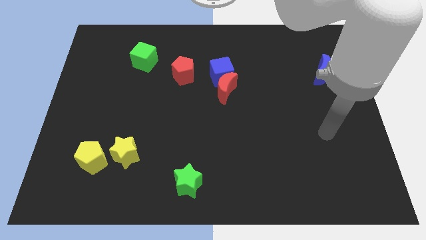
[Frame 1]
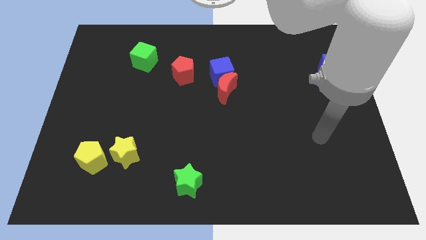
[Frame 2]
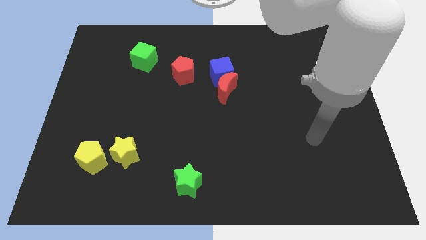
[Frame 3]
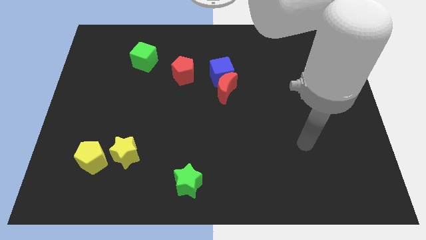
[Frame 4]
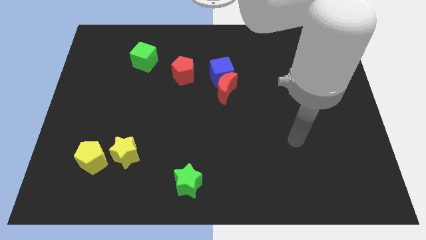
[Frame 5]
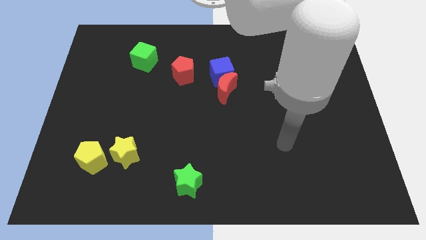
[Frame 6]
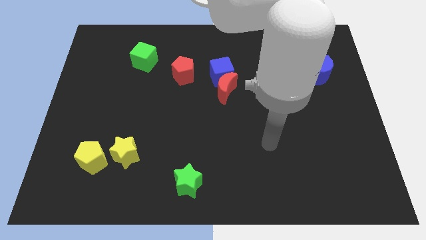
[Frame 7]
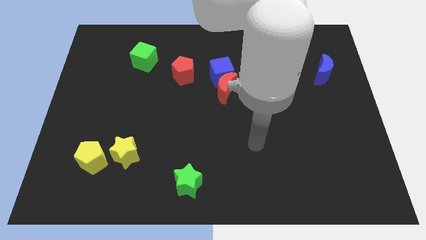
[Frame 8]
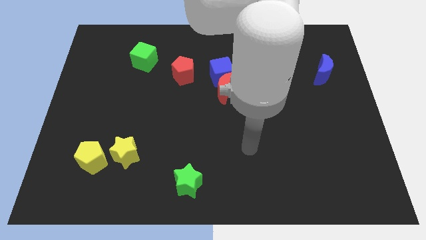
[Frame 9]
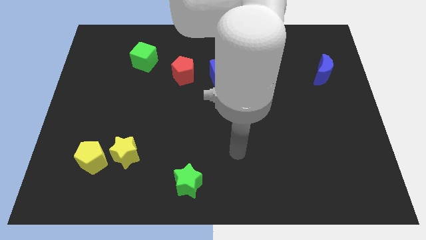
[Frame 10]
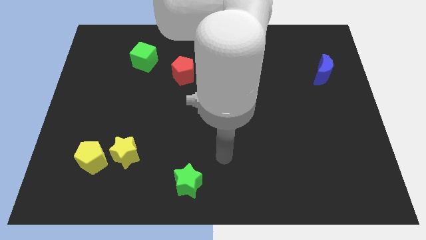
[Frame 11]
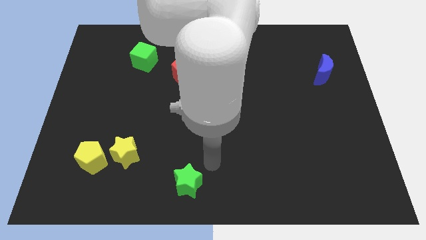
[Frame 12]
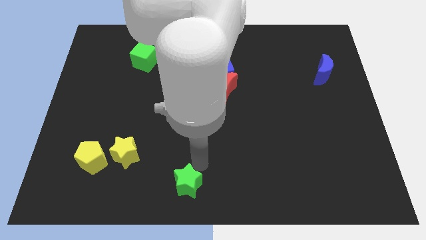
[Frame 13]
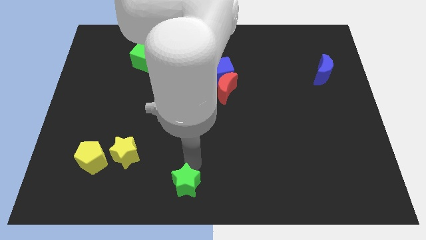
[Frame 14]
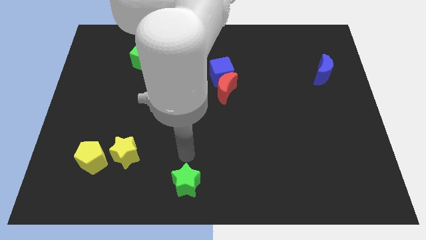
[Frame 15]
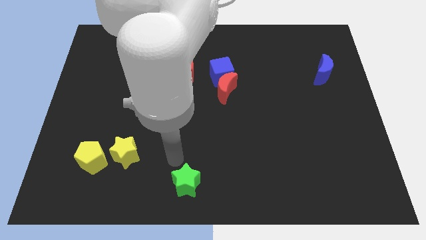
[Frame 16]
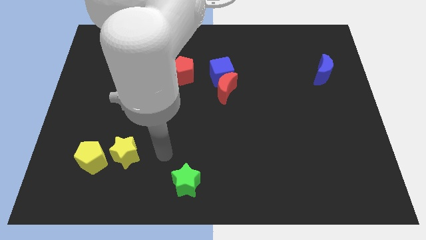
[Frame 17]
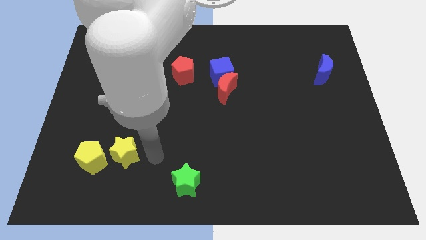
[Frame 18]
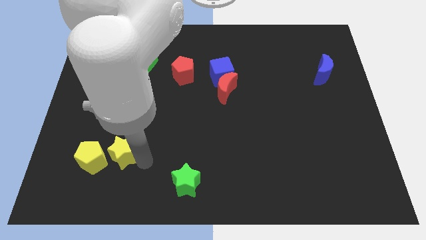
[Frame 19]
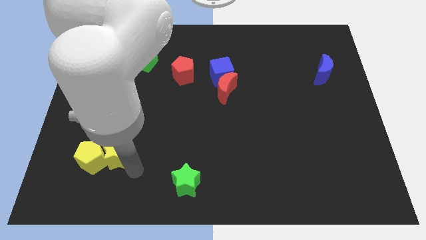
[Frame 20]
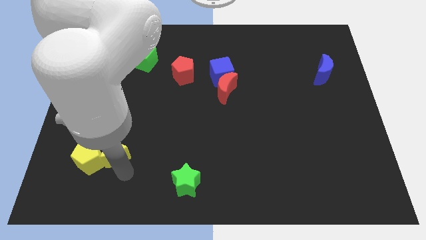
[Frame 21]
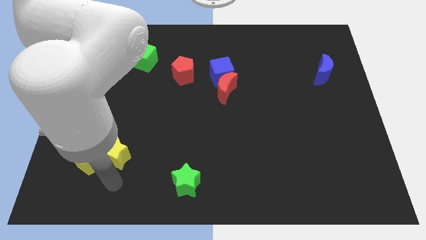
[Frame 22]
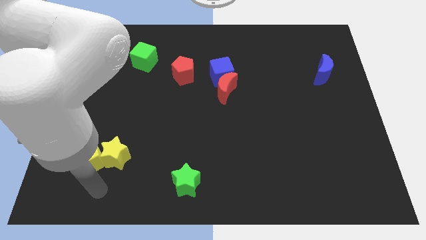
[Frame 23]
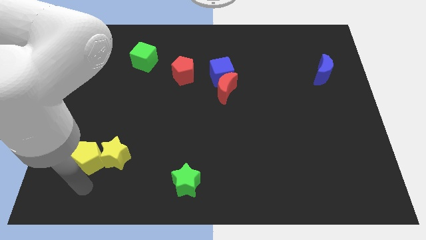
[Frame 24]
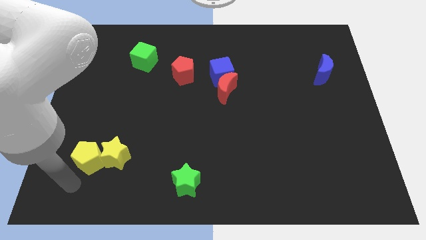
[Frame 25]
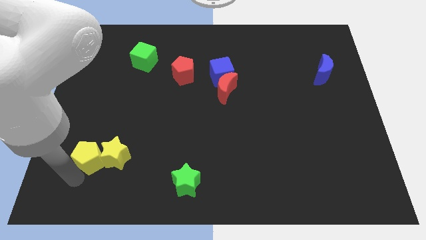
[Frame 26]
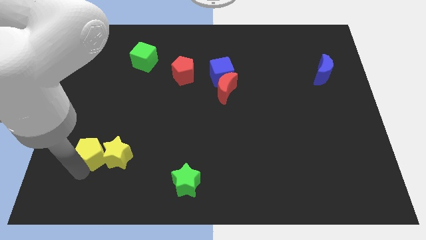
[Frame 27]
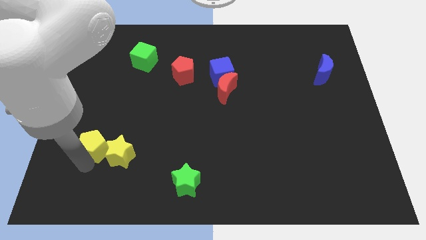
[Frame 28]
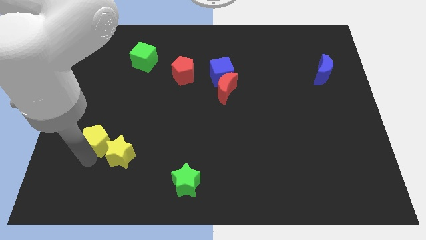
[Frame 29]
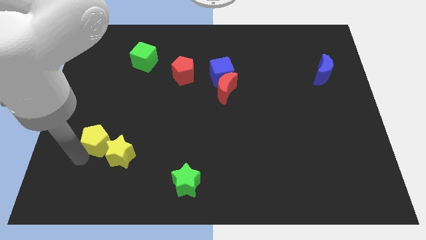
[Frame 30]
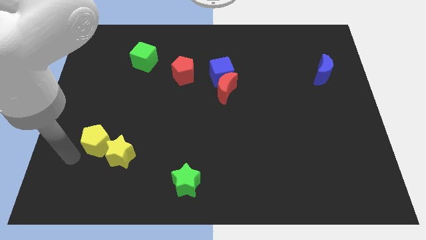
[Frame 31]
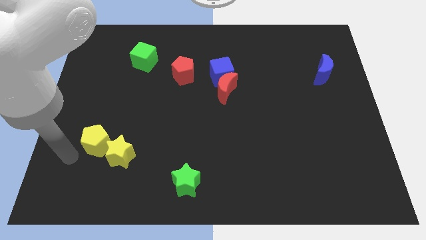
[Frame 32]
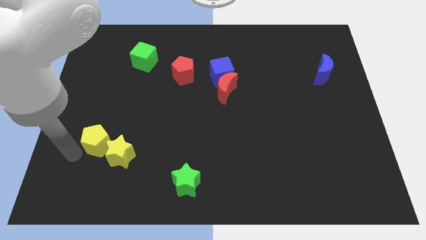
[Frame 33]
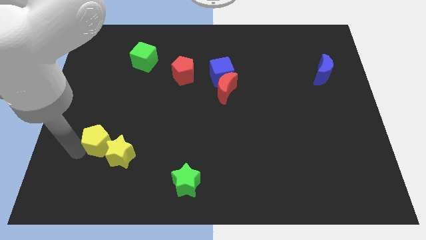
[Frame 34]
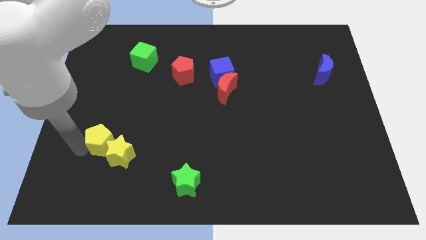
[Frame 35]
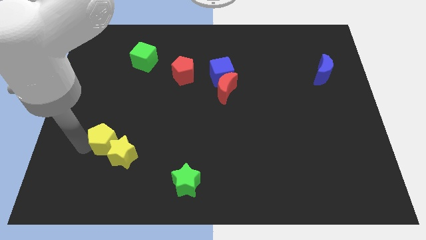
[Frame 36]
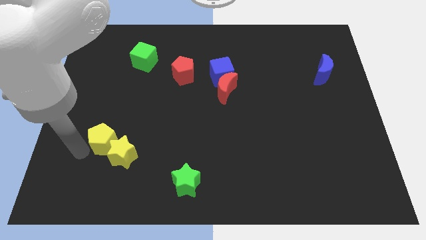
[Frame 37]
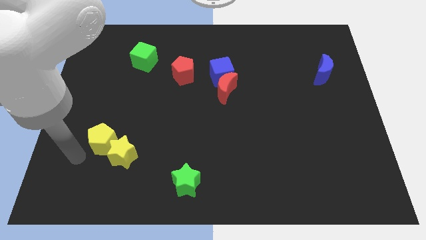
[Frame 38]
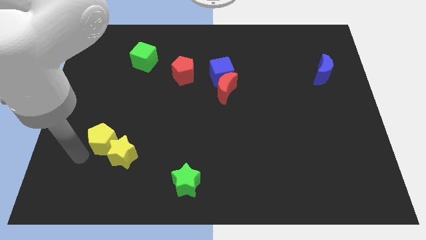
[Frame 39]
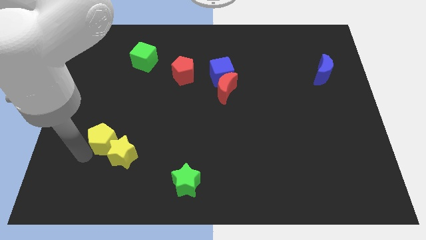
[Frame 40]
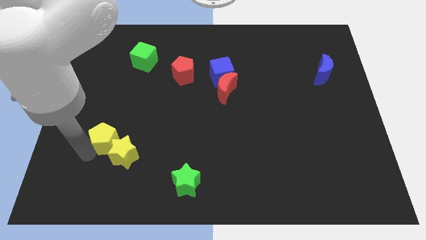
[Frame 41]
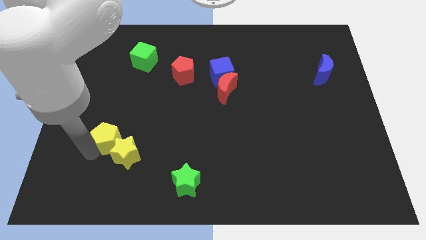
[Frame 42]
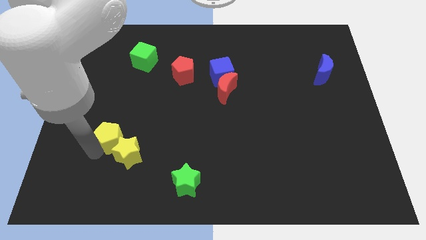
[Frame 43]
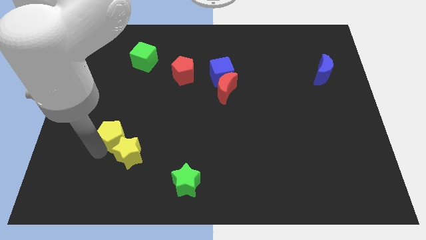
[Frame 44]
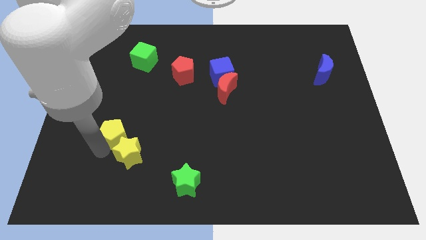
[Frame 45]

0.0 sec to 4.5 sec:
move the yellow pentagon up and to the right diagonally a bit

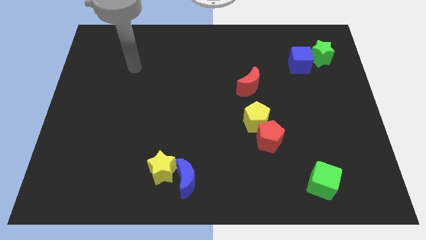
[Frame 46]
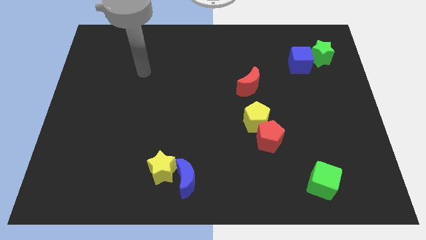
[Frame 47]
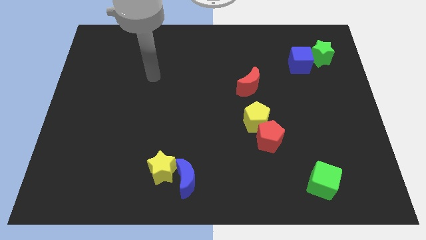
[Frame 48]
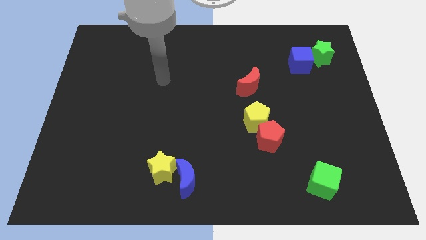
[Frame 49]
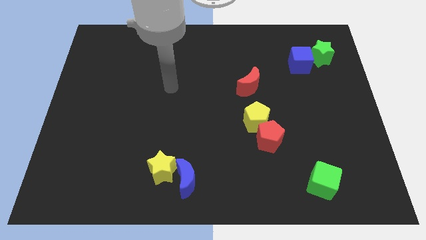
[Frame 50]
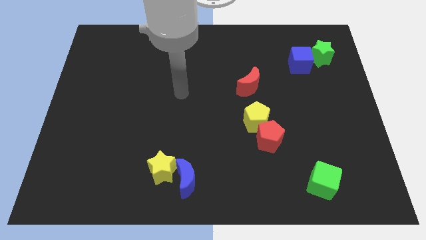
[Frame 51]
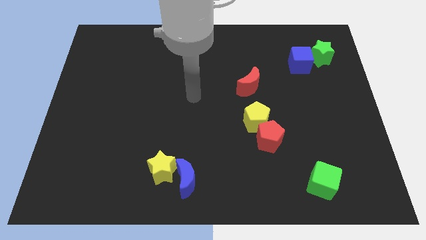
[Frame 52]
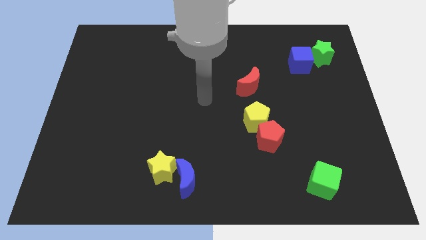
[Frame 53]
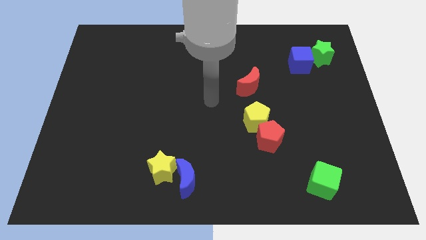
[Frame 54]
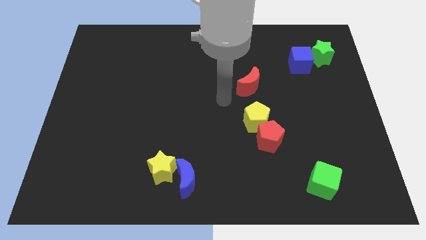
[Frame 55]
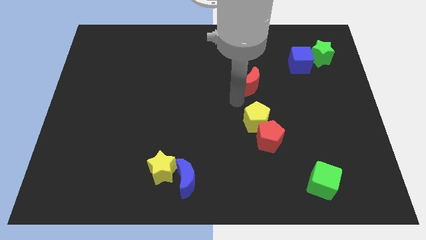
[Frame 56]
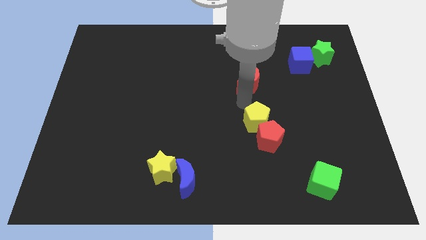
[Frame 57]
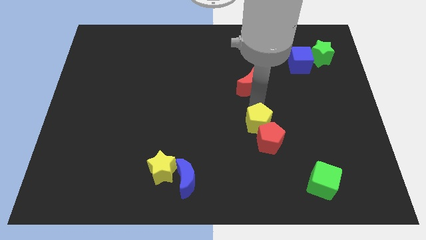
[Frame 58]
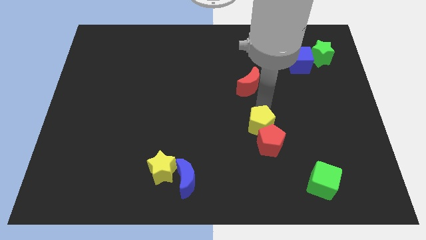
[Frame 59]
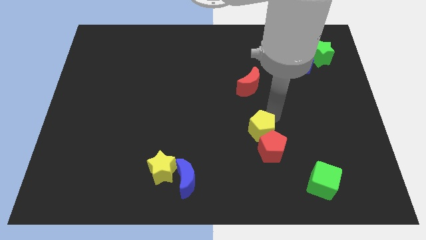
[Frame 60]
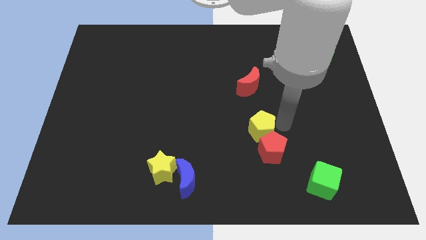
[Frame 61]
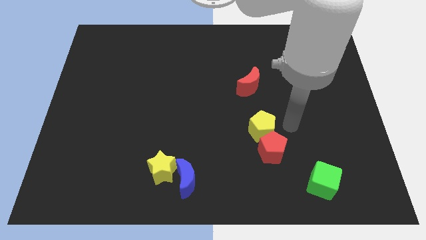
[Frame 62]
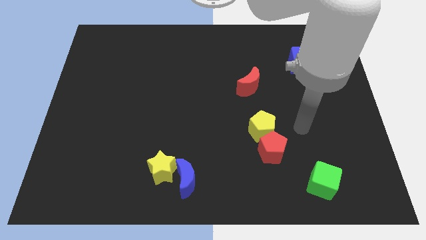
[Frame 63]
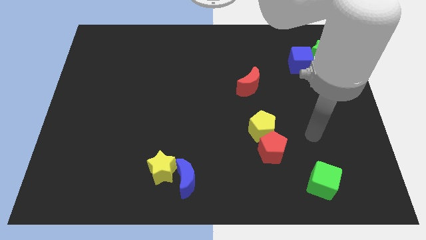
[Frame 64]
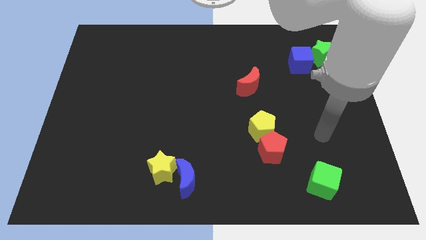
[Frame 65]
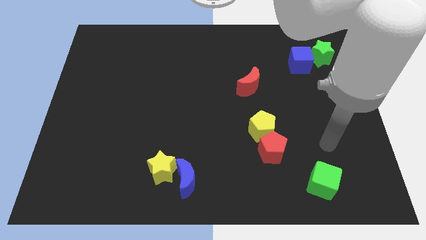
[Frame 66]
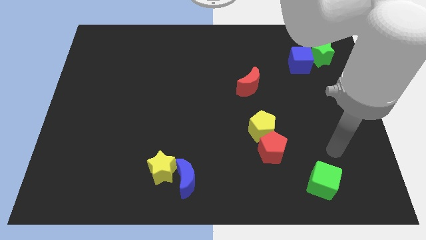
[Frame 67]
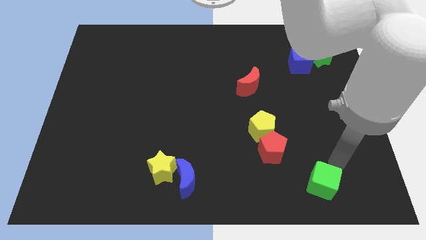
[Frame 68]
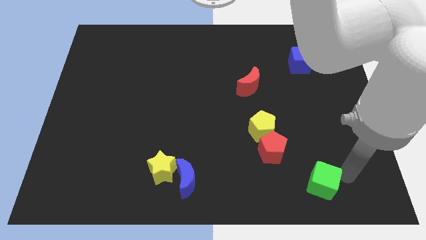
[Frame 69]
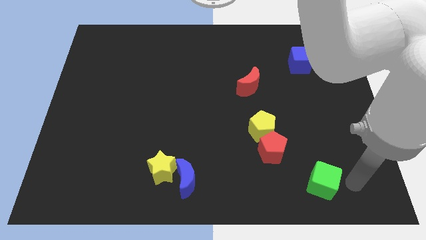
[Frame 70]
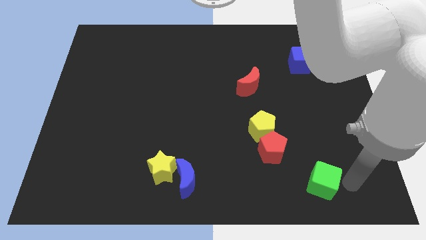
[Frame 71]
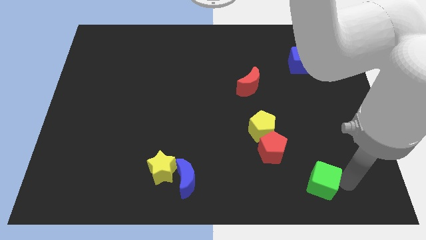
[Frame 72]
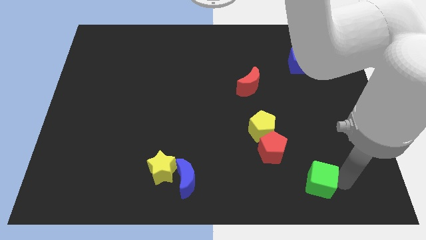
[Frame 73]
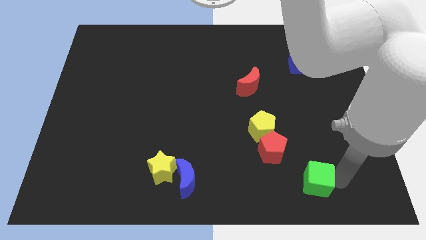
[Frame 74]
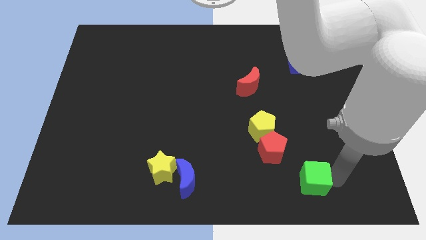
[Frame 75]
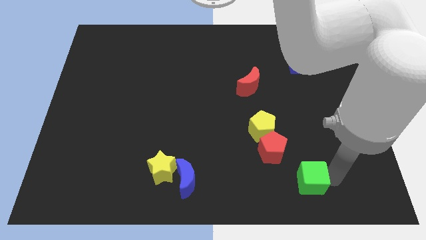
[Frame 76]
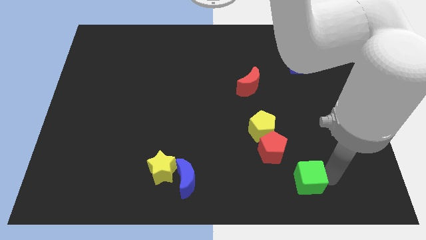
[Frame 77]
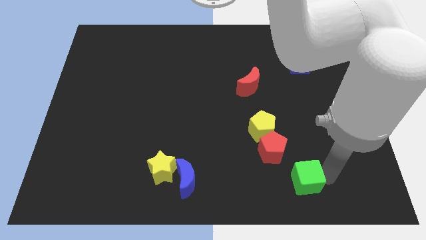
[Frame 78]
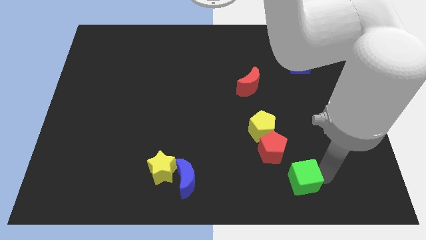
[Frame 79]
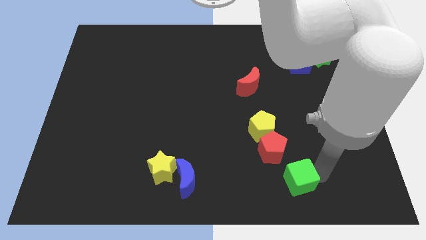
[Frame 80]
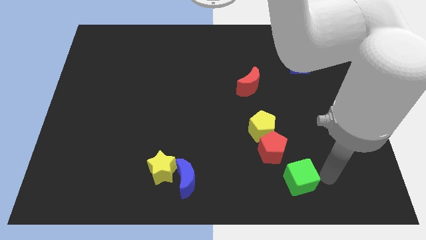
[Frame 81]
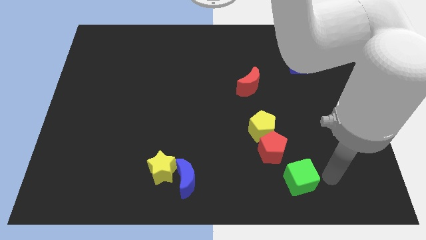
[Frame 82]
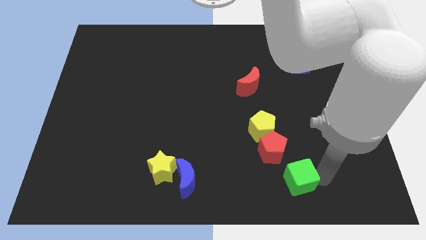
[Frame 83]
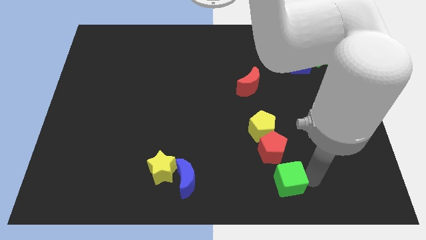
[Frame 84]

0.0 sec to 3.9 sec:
slightly push the green cube to the left
